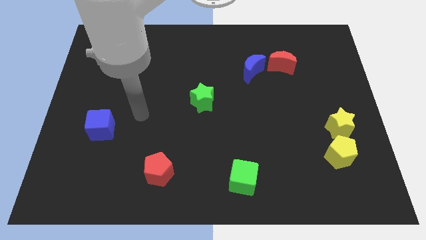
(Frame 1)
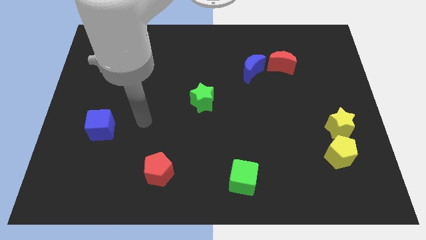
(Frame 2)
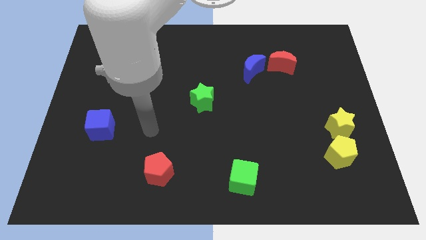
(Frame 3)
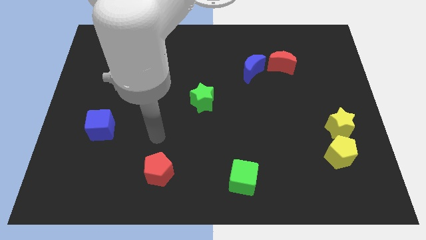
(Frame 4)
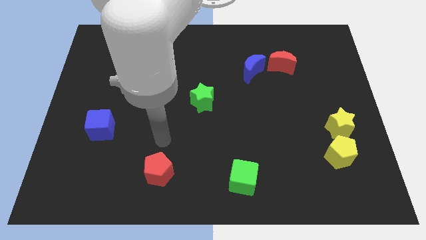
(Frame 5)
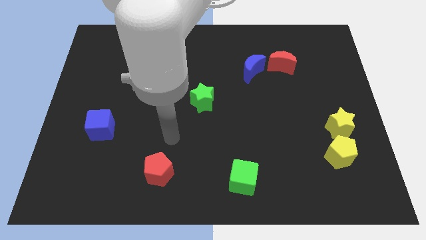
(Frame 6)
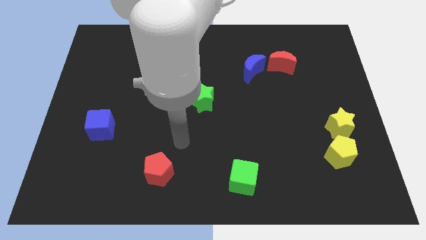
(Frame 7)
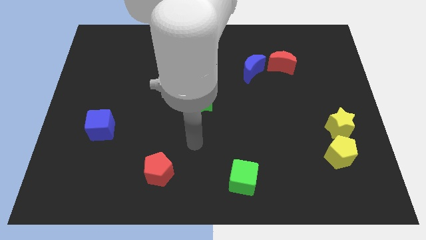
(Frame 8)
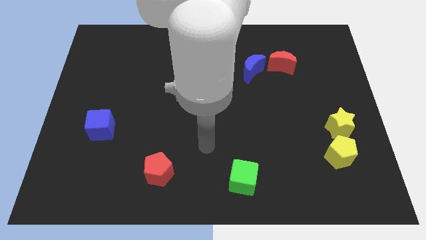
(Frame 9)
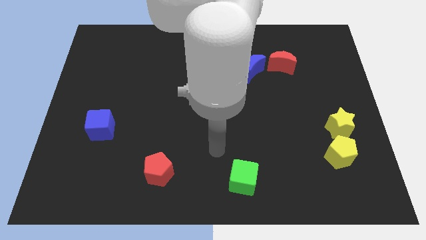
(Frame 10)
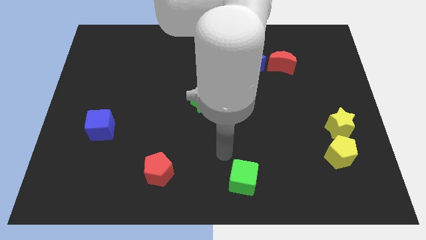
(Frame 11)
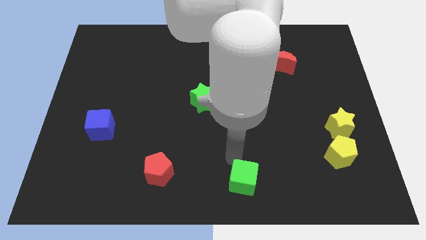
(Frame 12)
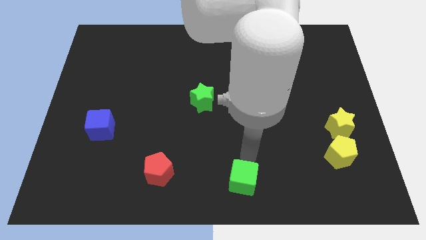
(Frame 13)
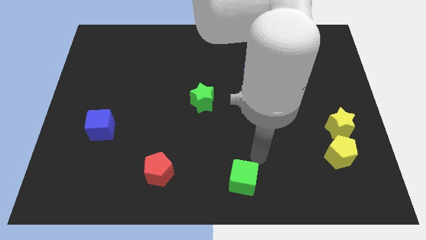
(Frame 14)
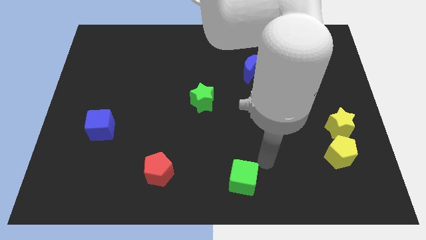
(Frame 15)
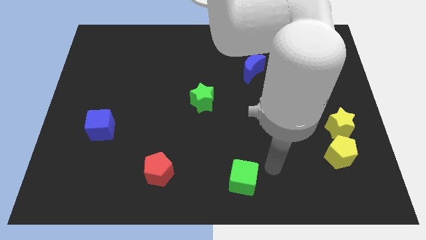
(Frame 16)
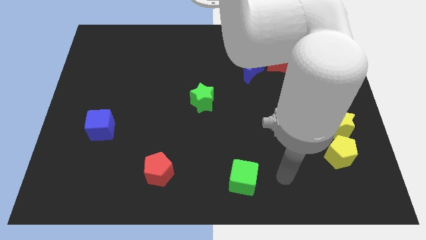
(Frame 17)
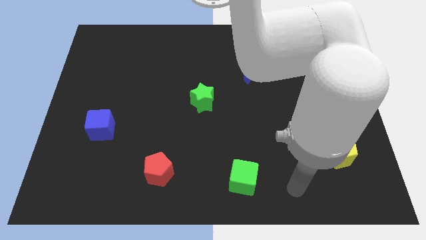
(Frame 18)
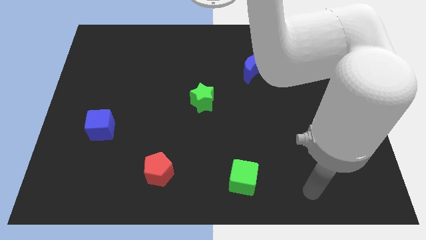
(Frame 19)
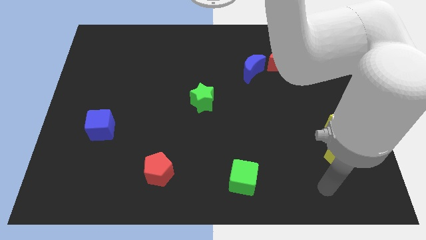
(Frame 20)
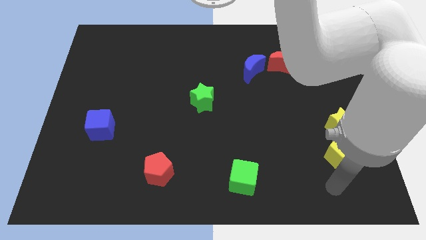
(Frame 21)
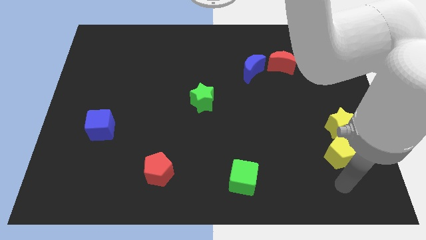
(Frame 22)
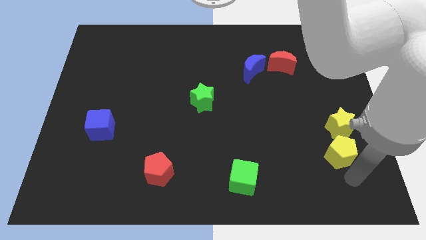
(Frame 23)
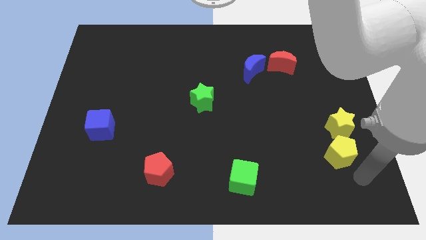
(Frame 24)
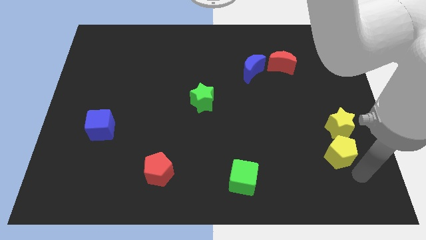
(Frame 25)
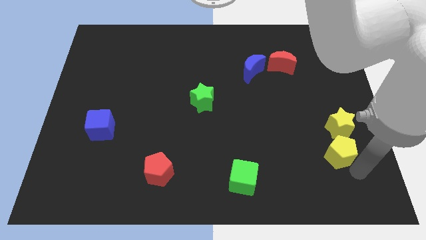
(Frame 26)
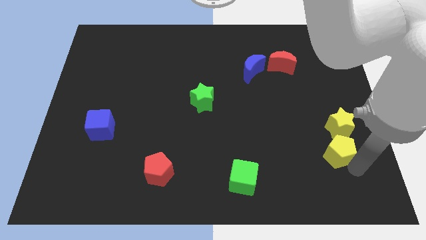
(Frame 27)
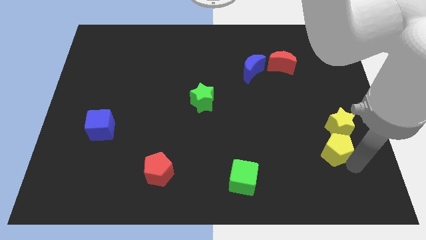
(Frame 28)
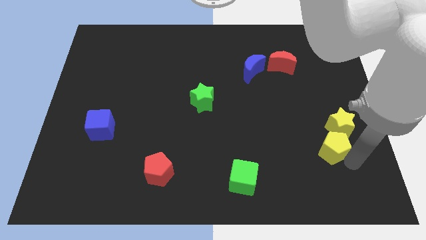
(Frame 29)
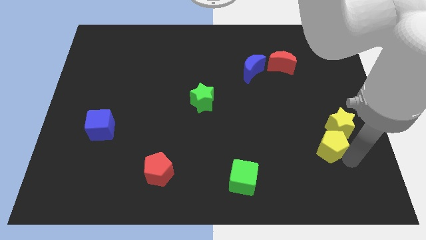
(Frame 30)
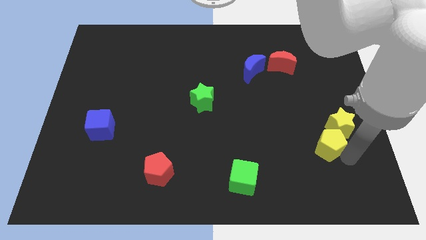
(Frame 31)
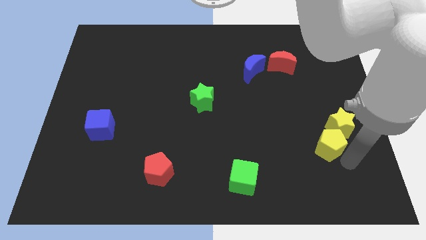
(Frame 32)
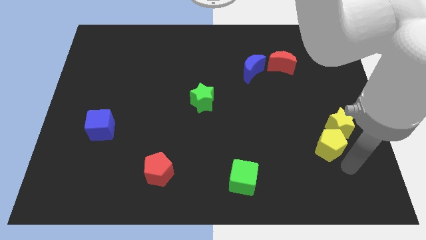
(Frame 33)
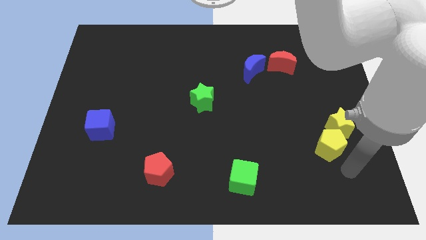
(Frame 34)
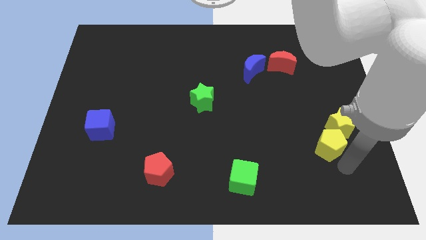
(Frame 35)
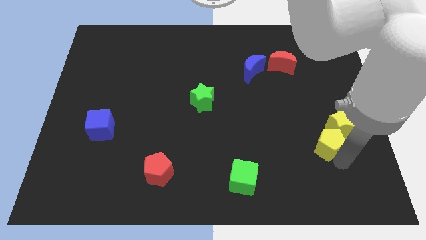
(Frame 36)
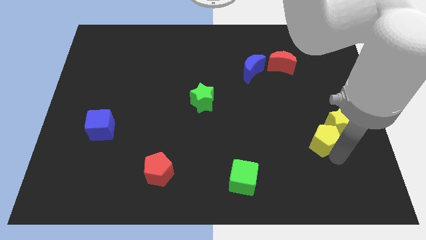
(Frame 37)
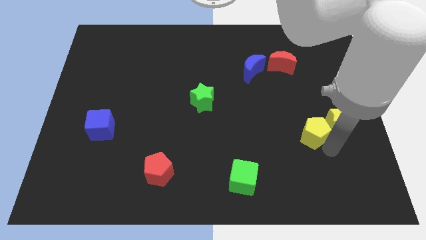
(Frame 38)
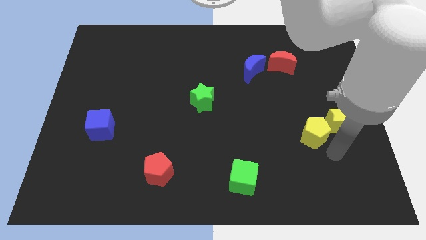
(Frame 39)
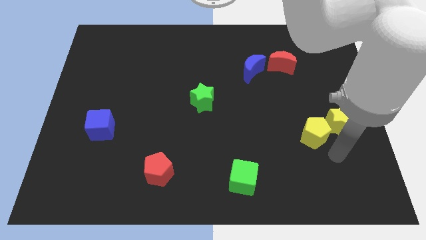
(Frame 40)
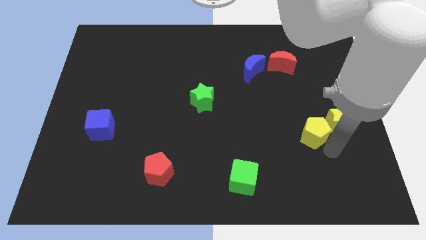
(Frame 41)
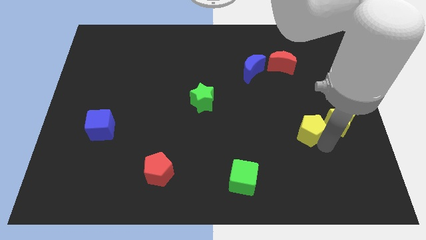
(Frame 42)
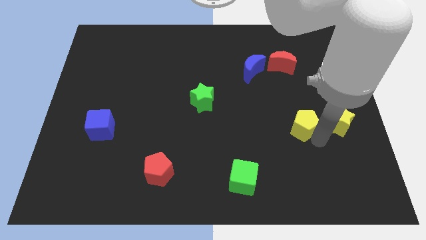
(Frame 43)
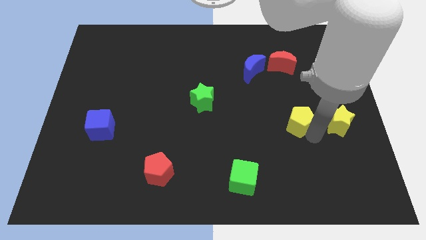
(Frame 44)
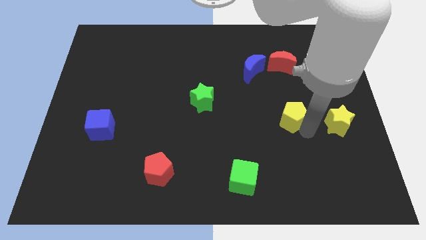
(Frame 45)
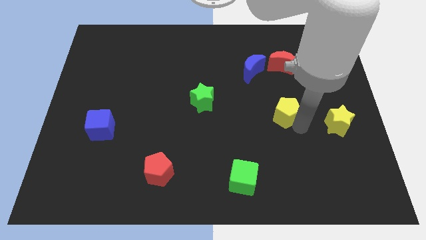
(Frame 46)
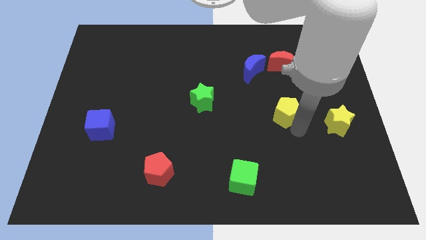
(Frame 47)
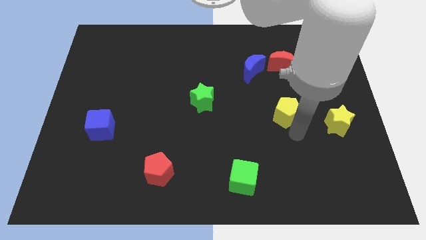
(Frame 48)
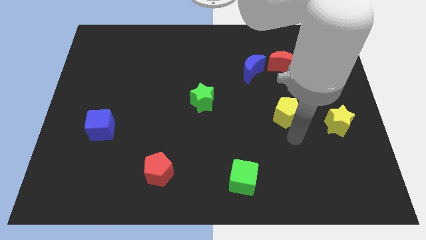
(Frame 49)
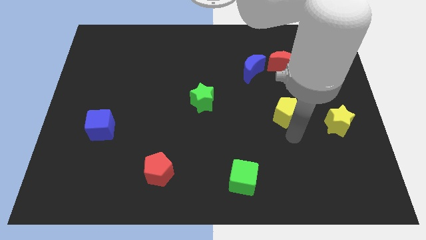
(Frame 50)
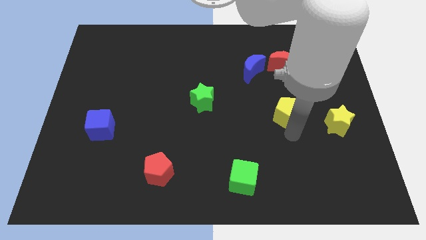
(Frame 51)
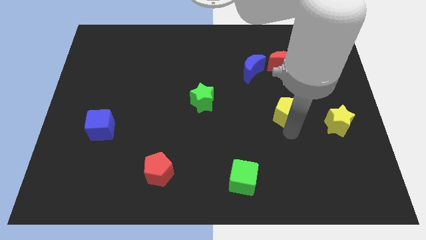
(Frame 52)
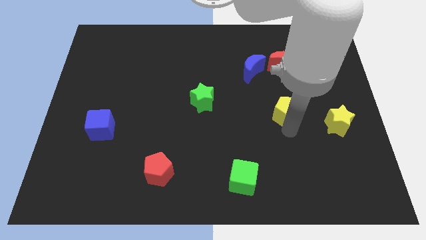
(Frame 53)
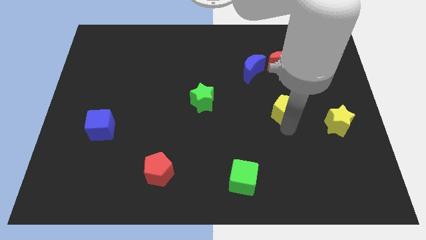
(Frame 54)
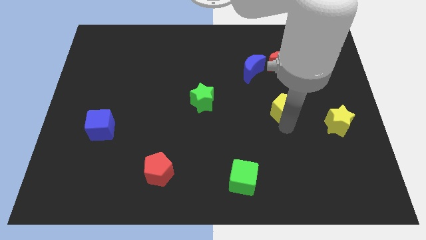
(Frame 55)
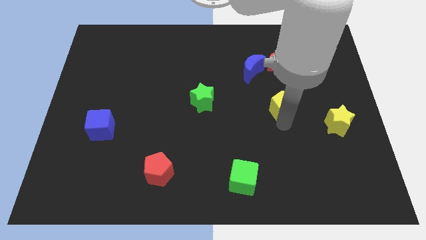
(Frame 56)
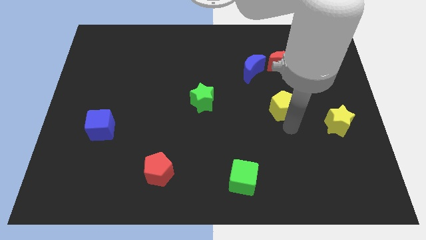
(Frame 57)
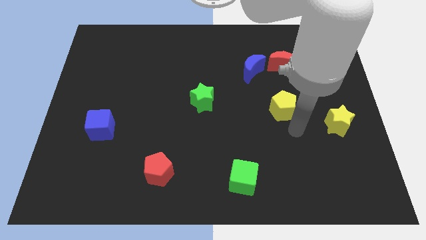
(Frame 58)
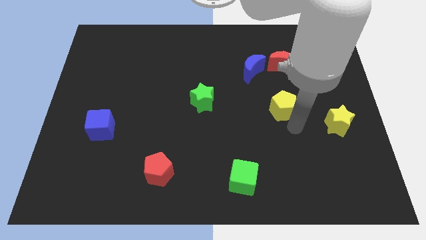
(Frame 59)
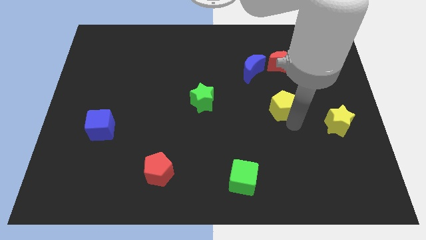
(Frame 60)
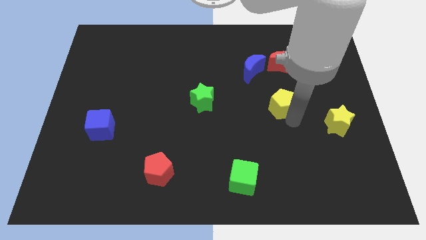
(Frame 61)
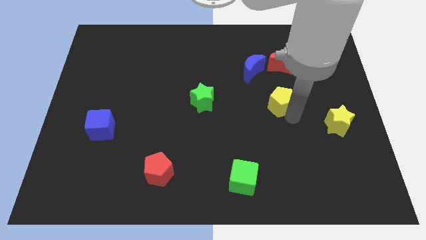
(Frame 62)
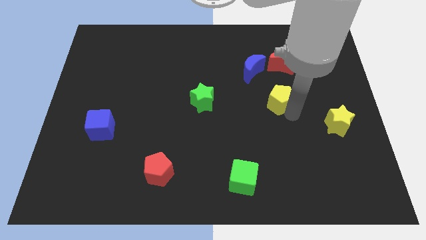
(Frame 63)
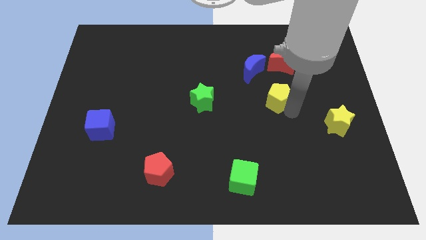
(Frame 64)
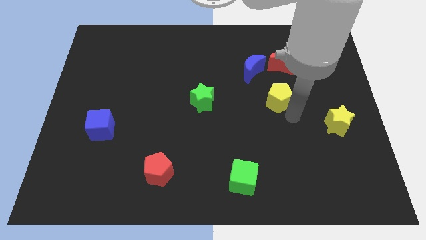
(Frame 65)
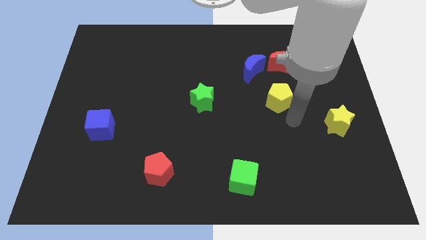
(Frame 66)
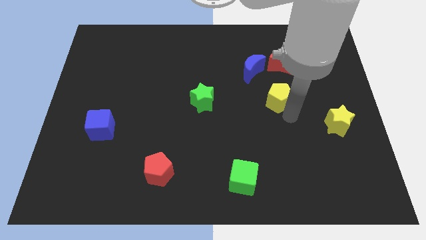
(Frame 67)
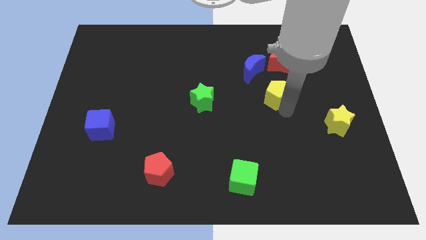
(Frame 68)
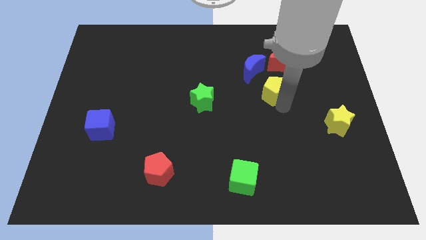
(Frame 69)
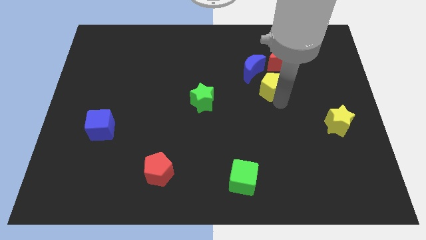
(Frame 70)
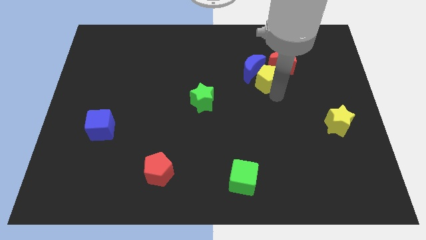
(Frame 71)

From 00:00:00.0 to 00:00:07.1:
push the yellow pentagon close to the blue moon

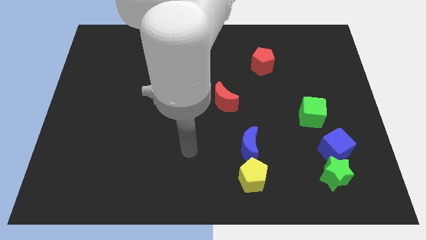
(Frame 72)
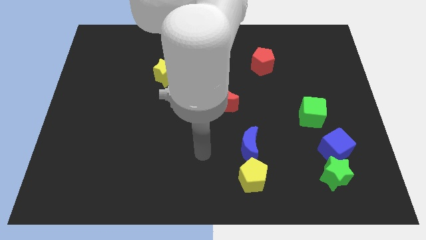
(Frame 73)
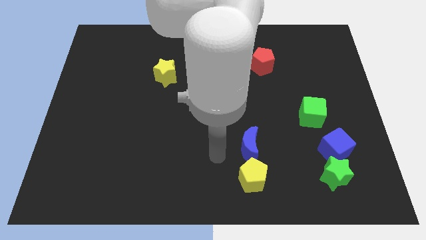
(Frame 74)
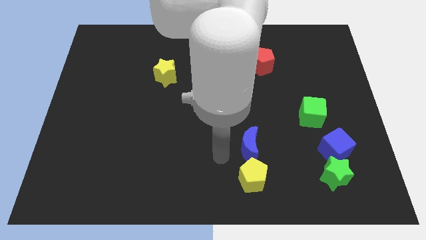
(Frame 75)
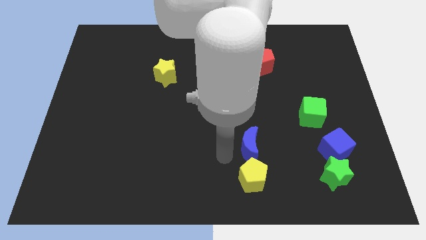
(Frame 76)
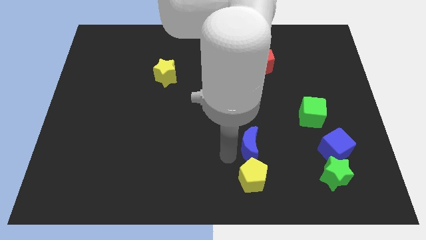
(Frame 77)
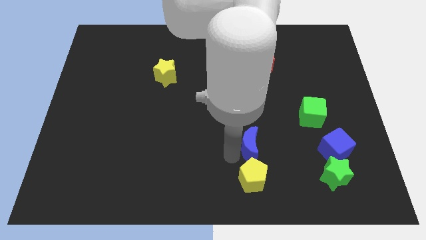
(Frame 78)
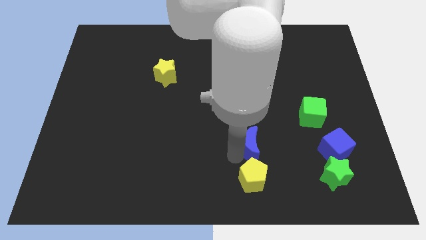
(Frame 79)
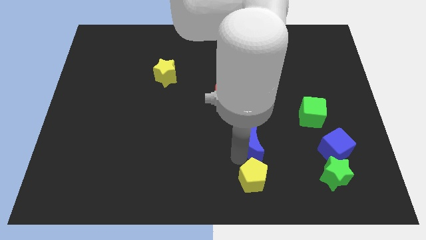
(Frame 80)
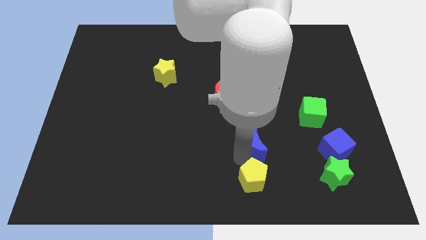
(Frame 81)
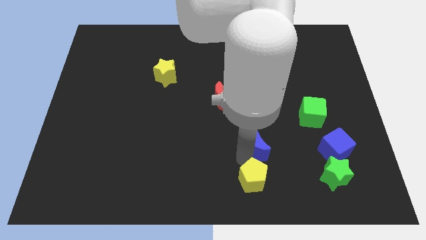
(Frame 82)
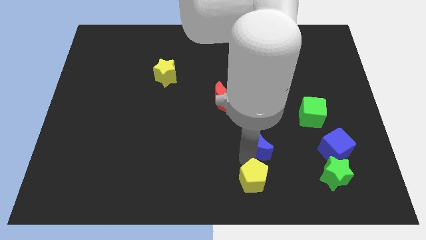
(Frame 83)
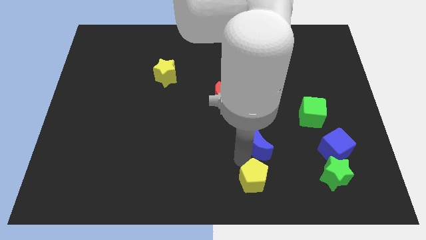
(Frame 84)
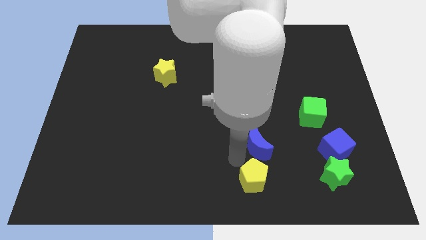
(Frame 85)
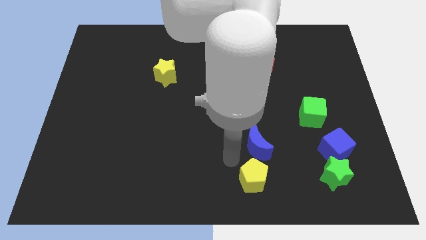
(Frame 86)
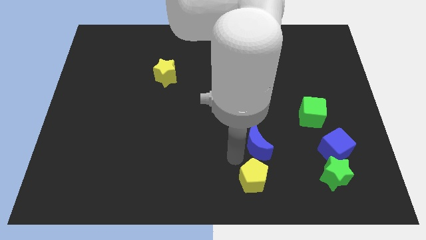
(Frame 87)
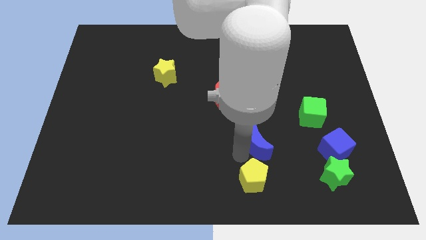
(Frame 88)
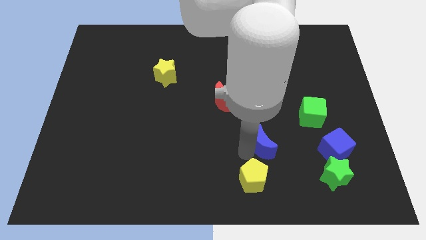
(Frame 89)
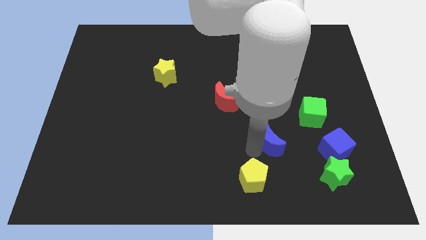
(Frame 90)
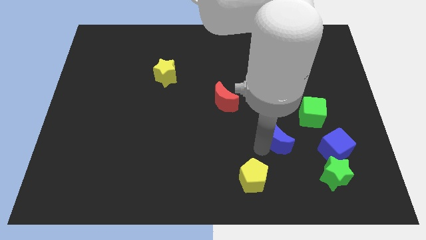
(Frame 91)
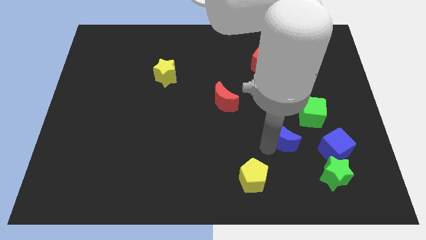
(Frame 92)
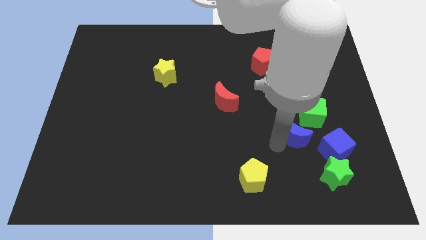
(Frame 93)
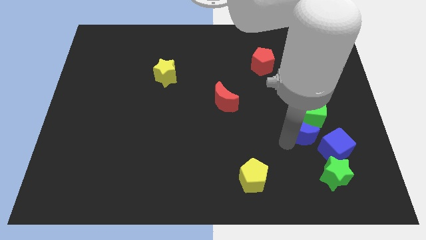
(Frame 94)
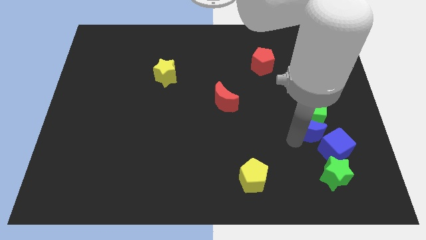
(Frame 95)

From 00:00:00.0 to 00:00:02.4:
push the blue moon to the green cube
